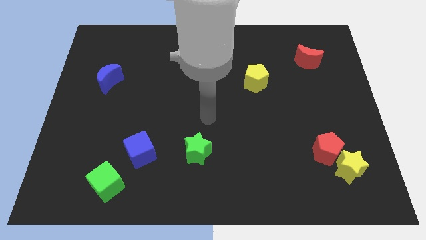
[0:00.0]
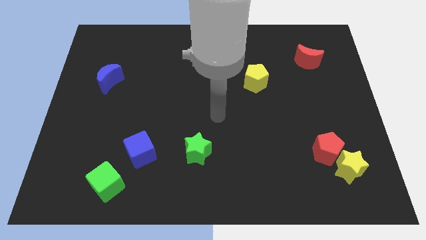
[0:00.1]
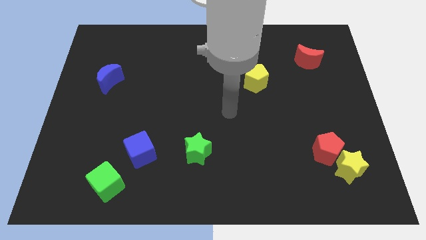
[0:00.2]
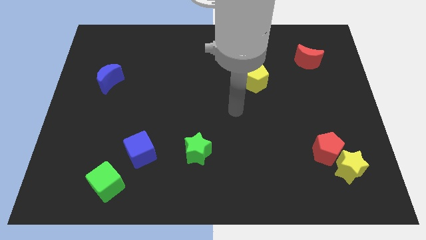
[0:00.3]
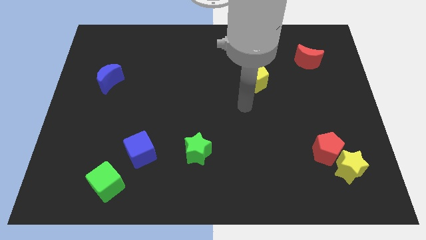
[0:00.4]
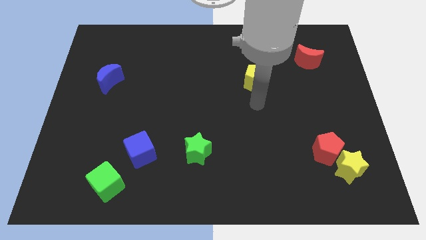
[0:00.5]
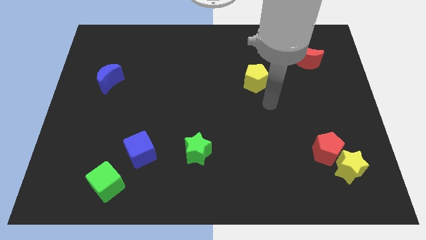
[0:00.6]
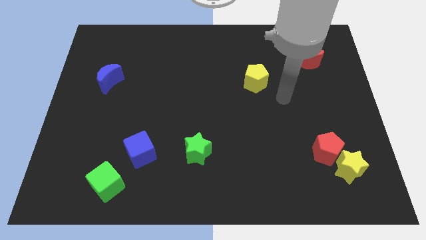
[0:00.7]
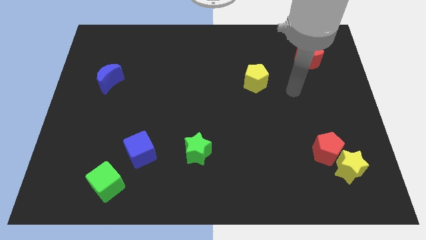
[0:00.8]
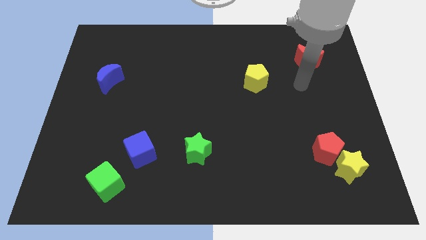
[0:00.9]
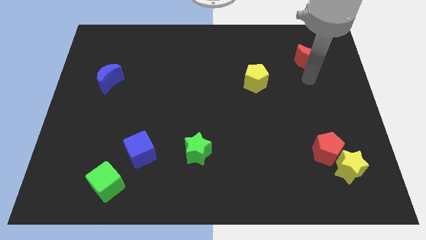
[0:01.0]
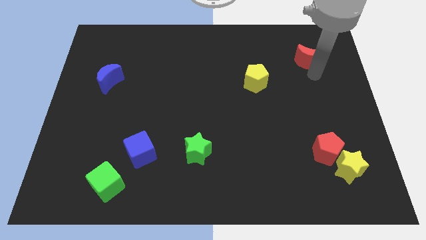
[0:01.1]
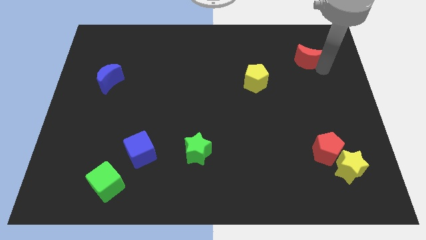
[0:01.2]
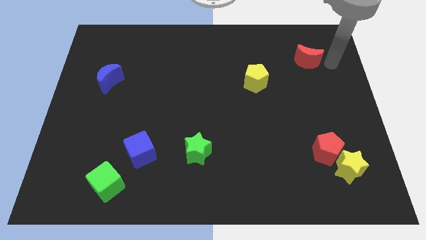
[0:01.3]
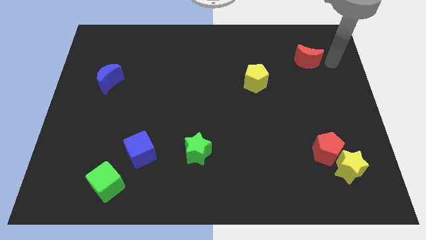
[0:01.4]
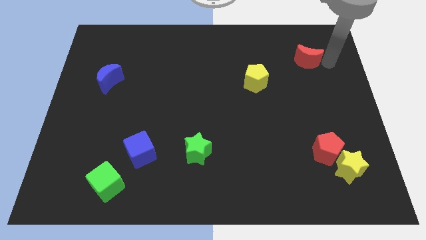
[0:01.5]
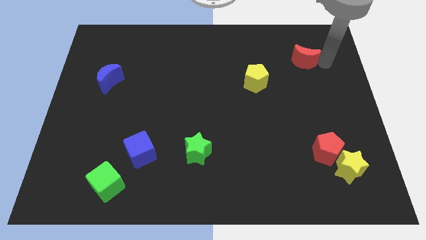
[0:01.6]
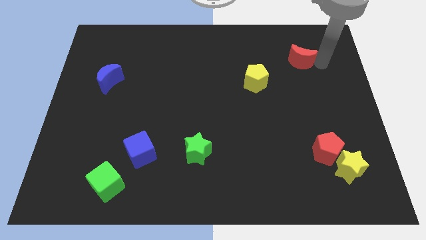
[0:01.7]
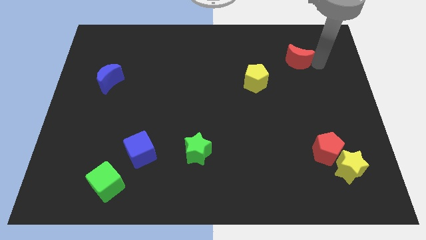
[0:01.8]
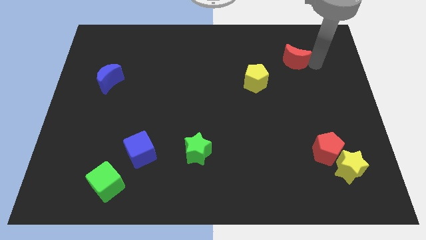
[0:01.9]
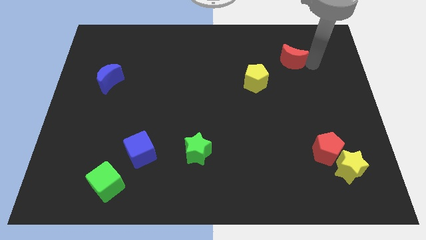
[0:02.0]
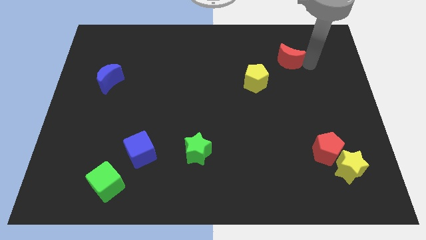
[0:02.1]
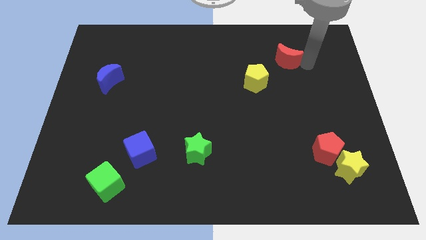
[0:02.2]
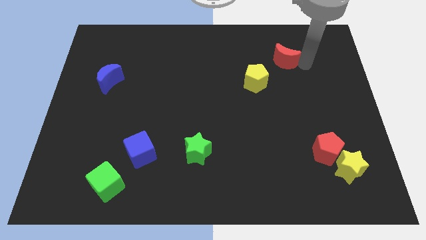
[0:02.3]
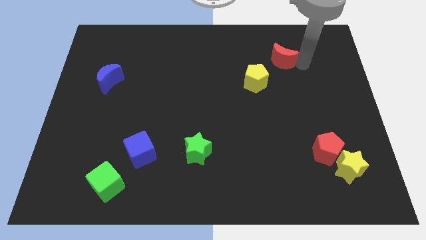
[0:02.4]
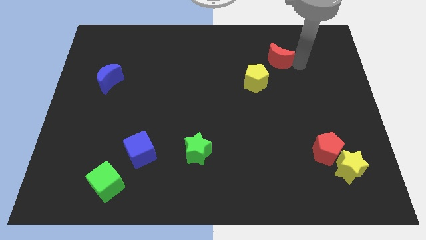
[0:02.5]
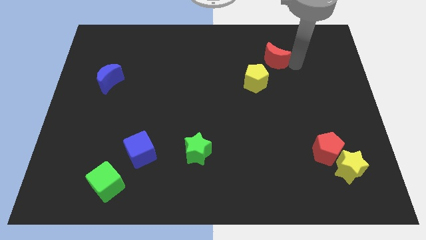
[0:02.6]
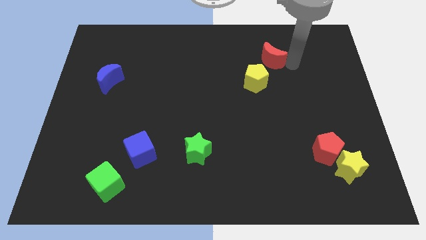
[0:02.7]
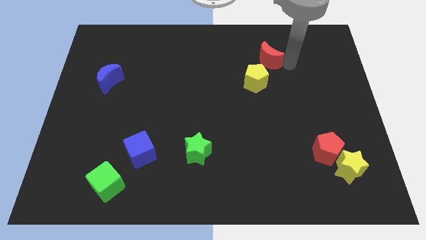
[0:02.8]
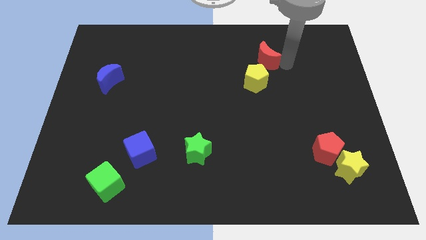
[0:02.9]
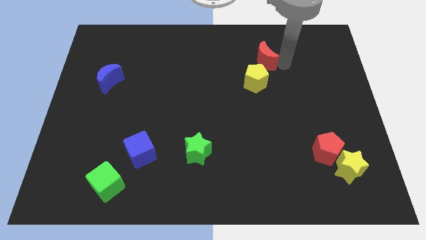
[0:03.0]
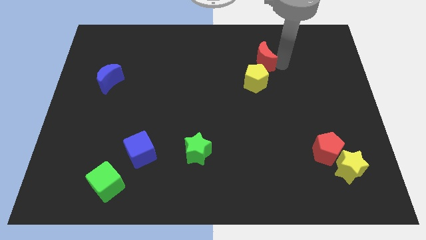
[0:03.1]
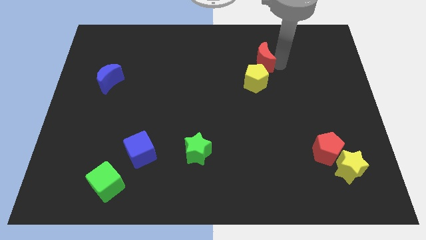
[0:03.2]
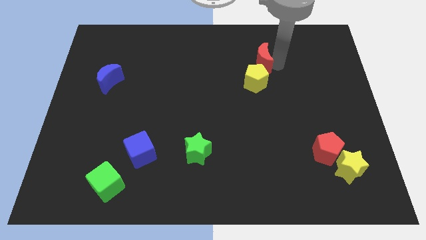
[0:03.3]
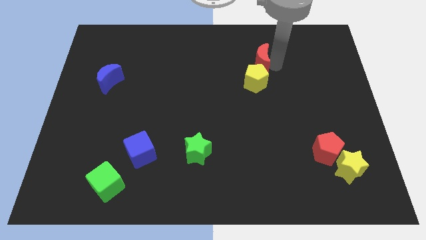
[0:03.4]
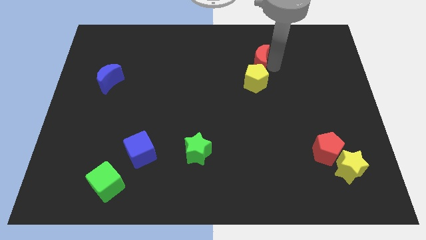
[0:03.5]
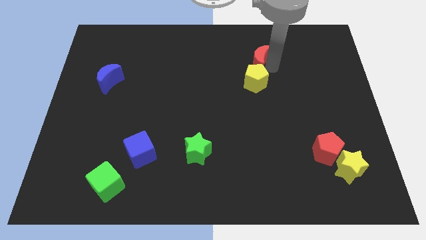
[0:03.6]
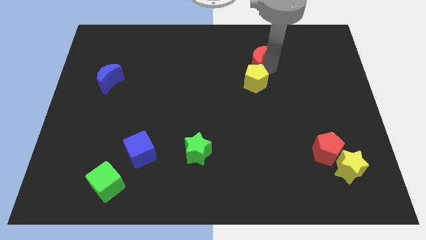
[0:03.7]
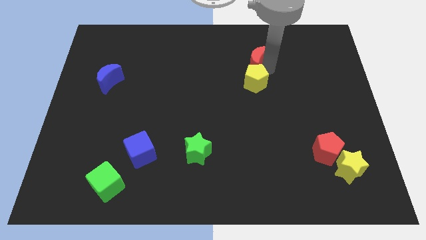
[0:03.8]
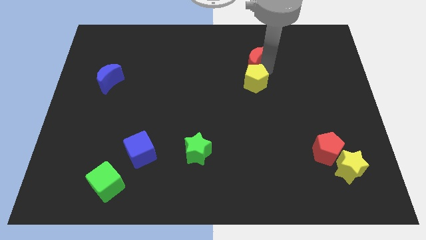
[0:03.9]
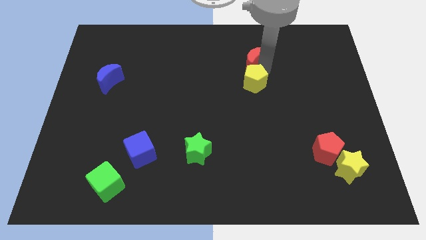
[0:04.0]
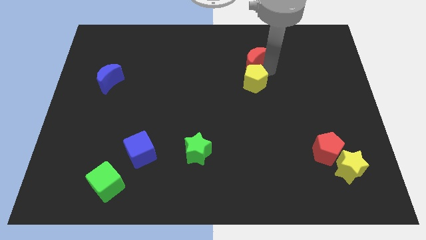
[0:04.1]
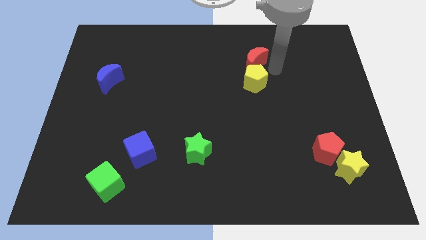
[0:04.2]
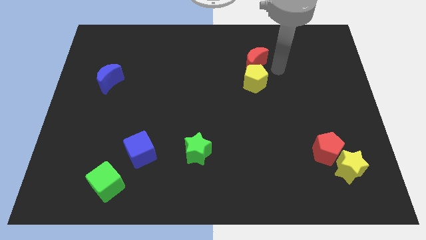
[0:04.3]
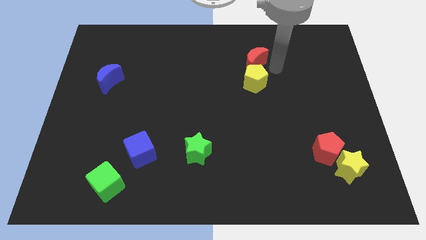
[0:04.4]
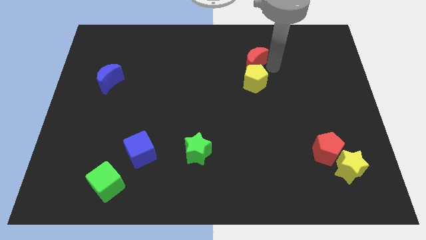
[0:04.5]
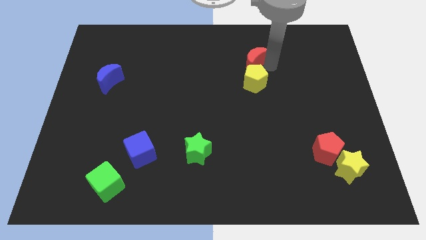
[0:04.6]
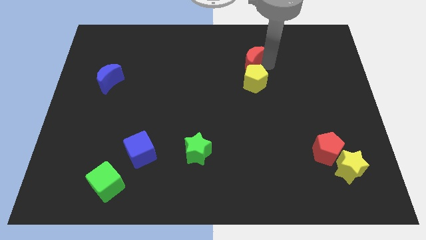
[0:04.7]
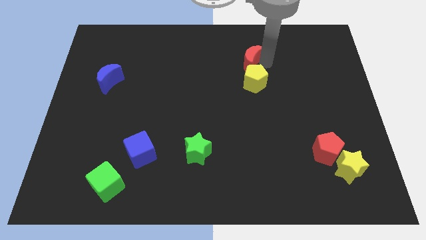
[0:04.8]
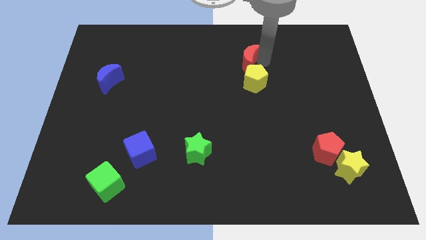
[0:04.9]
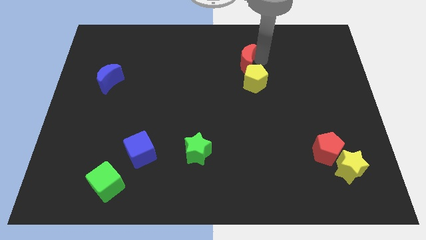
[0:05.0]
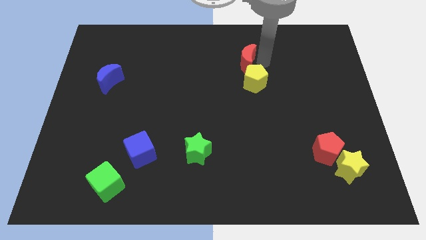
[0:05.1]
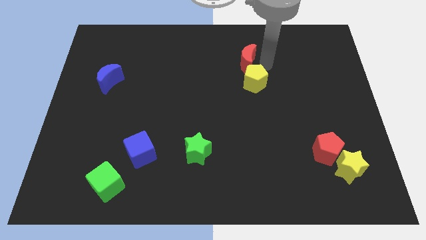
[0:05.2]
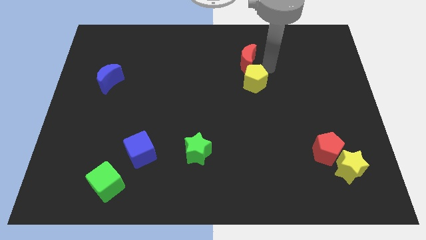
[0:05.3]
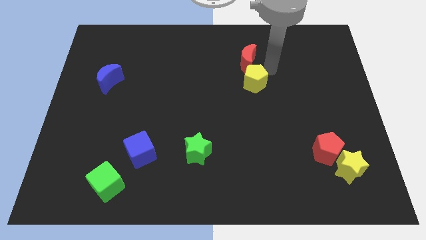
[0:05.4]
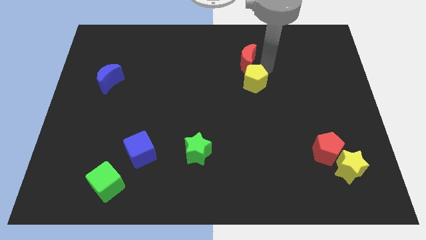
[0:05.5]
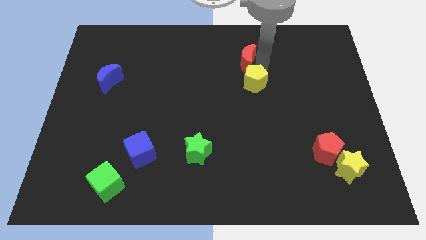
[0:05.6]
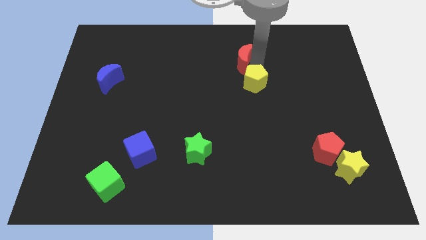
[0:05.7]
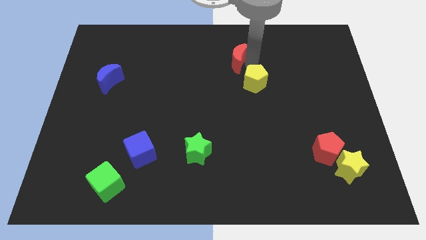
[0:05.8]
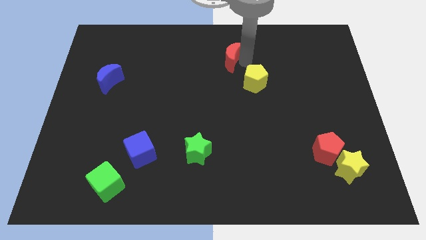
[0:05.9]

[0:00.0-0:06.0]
slide the red moon left

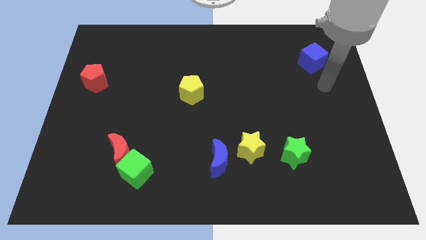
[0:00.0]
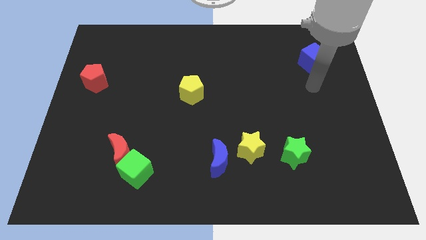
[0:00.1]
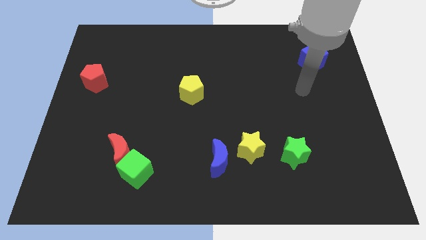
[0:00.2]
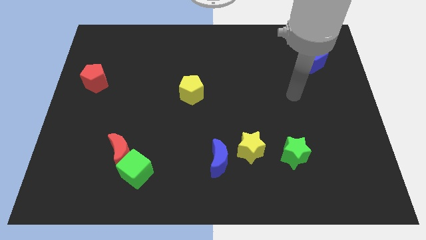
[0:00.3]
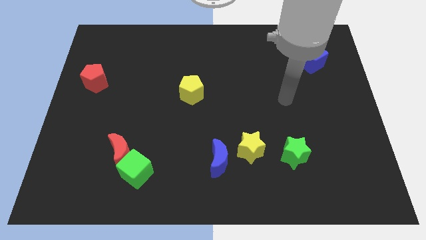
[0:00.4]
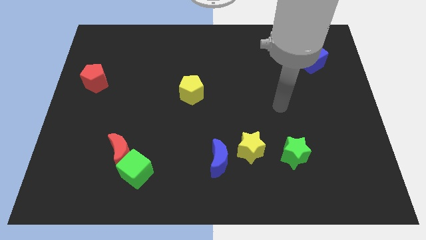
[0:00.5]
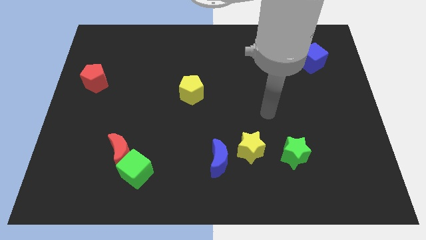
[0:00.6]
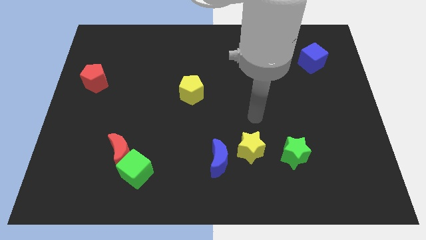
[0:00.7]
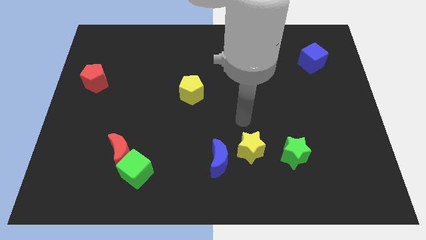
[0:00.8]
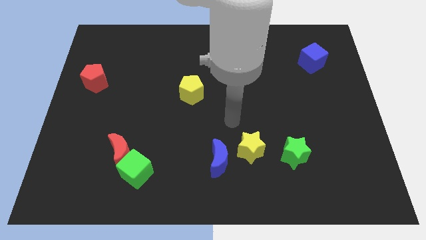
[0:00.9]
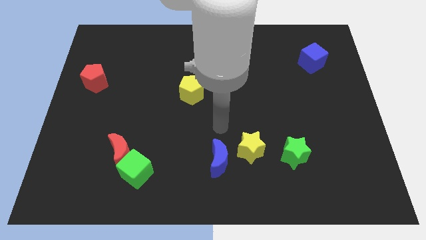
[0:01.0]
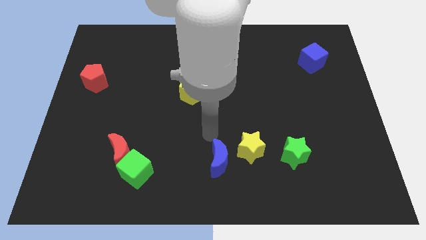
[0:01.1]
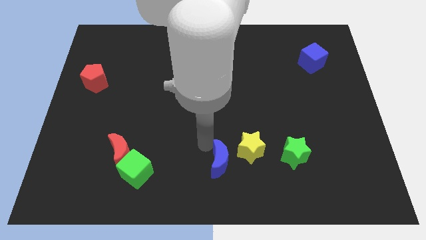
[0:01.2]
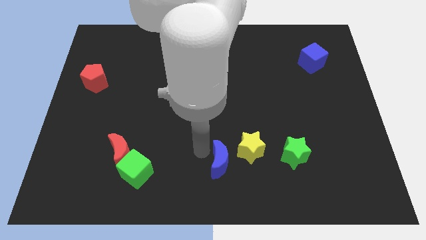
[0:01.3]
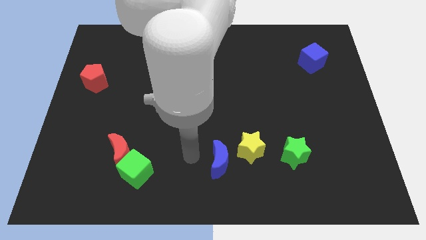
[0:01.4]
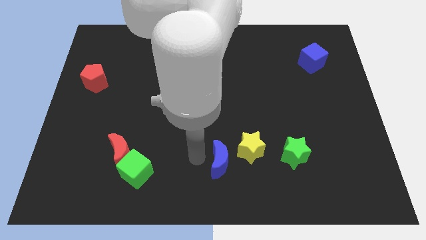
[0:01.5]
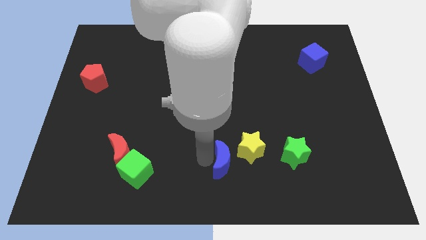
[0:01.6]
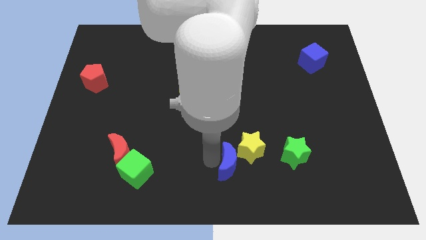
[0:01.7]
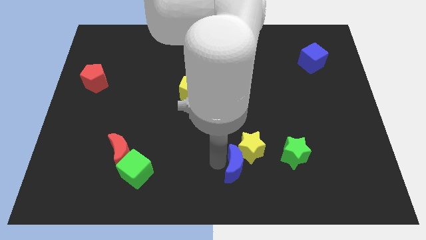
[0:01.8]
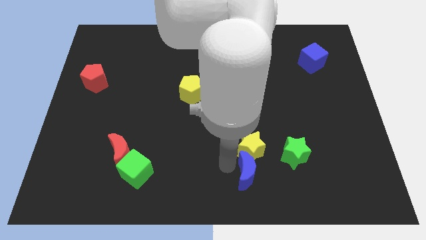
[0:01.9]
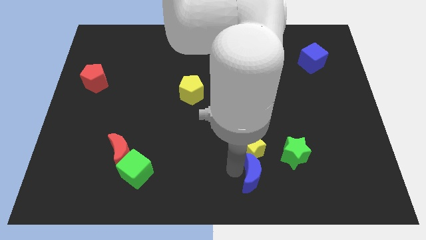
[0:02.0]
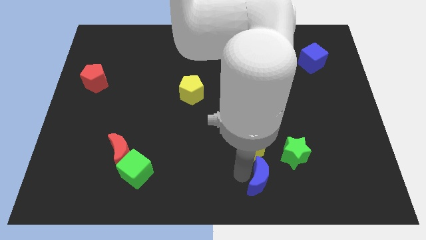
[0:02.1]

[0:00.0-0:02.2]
slightly move the blue moon right
